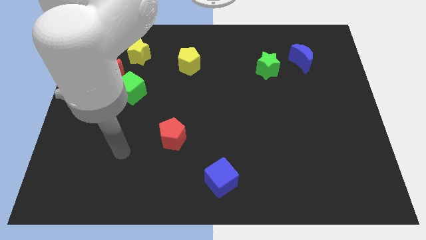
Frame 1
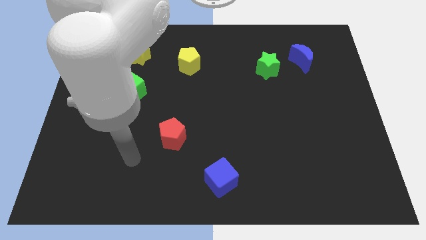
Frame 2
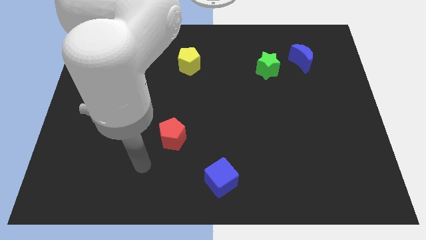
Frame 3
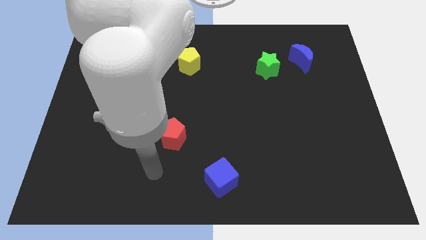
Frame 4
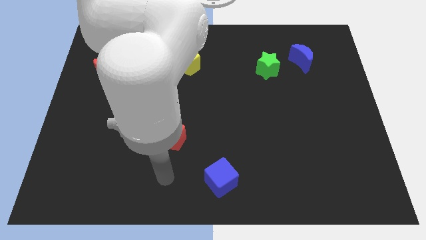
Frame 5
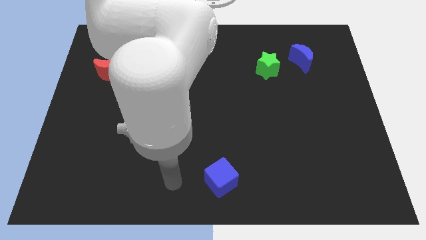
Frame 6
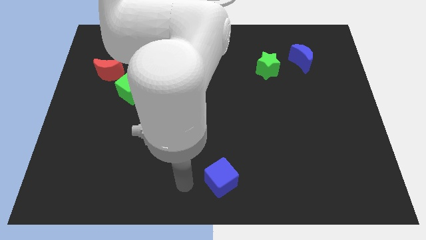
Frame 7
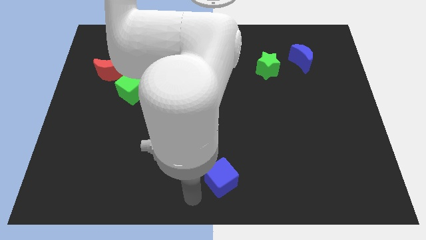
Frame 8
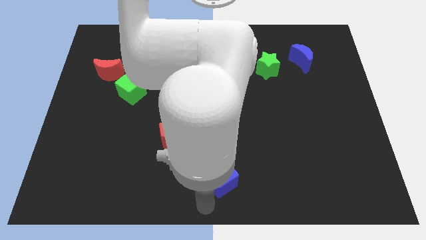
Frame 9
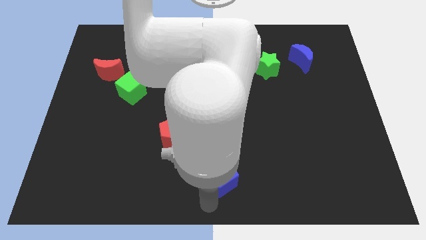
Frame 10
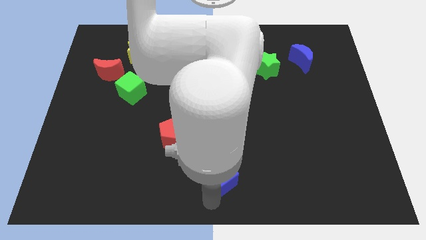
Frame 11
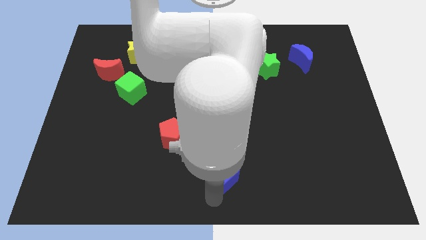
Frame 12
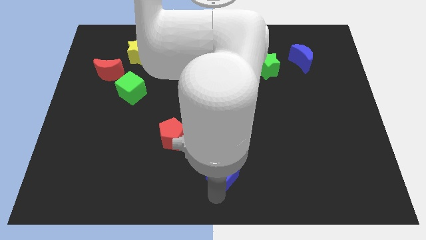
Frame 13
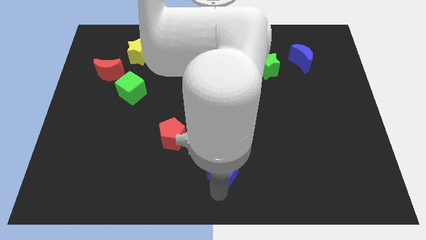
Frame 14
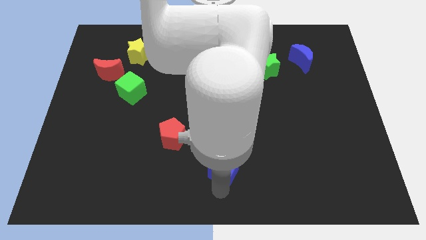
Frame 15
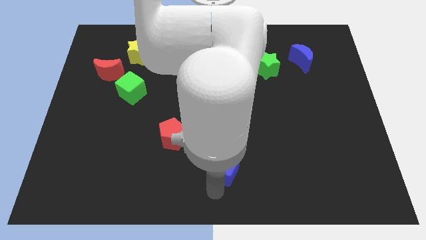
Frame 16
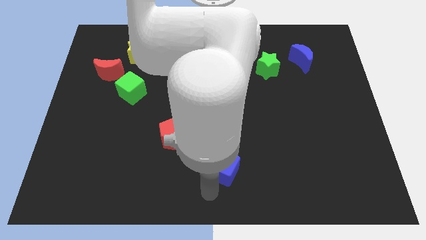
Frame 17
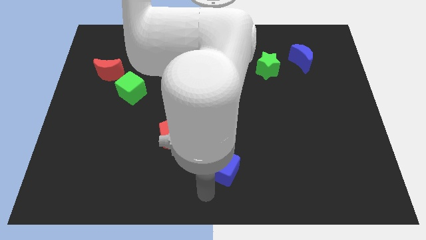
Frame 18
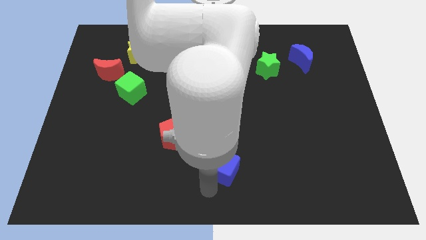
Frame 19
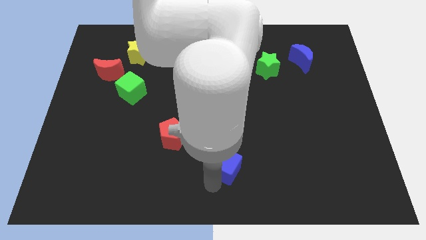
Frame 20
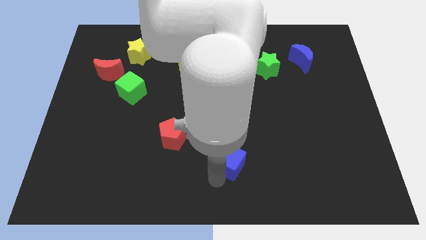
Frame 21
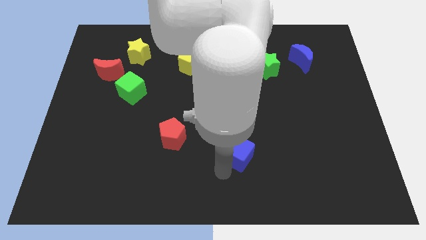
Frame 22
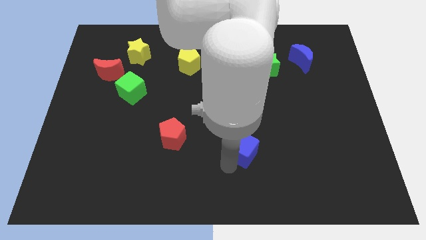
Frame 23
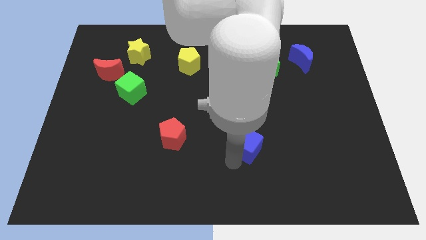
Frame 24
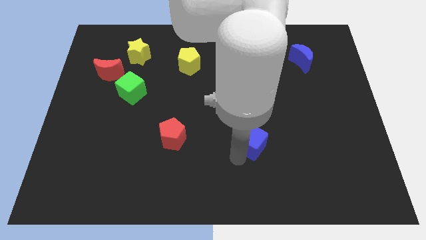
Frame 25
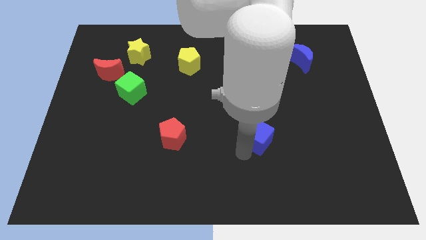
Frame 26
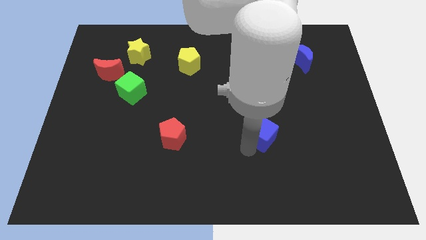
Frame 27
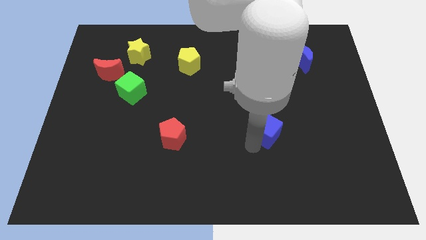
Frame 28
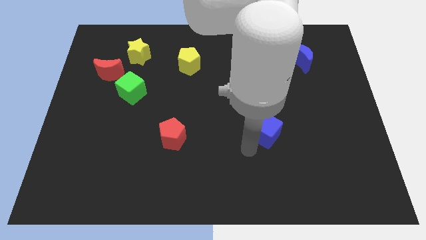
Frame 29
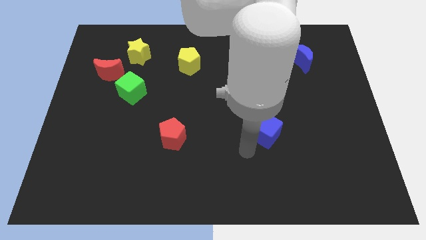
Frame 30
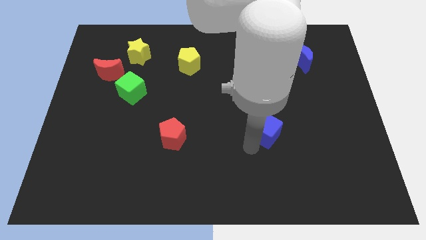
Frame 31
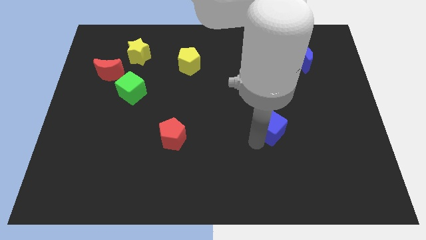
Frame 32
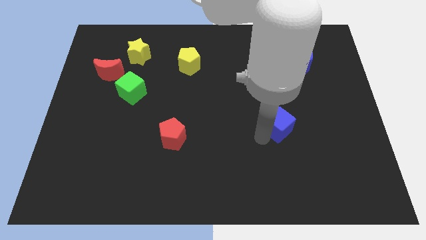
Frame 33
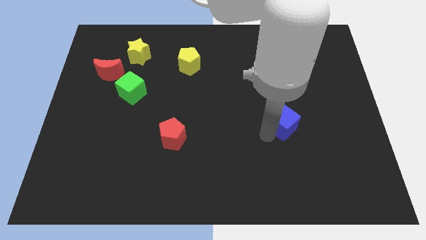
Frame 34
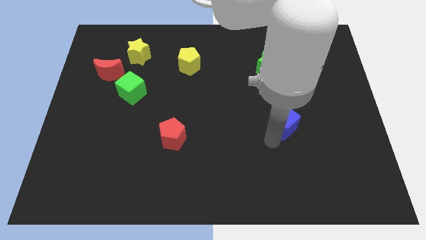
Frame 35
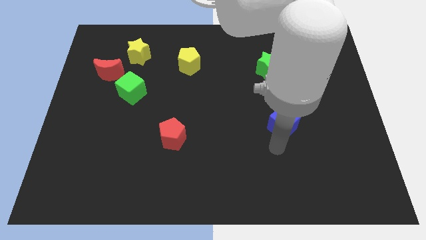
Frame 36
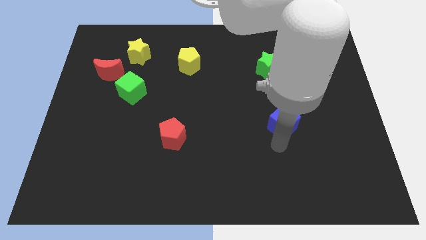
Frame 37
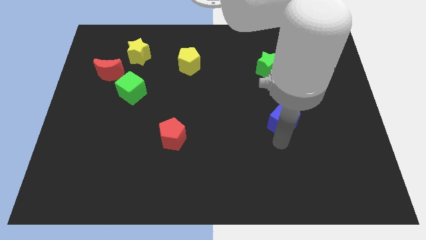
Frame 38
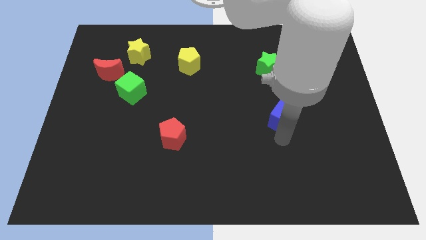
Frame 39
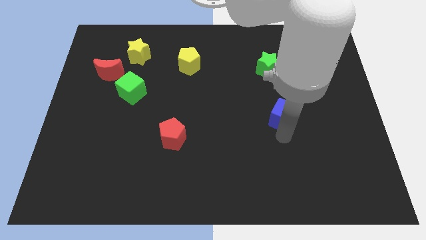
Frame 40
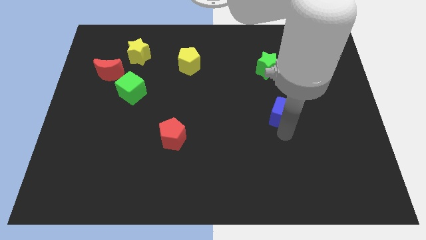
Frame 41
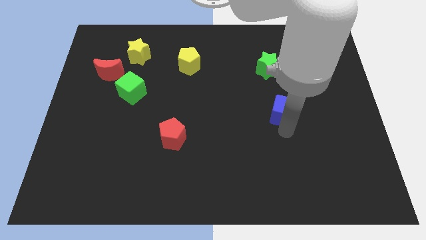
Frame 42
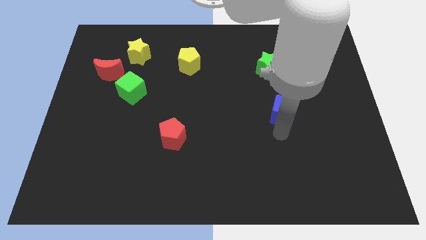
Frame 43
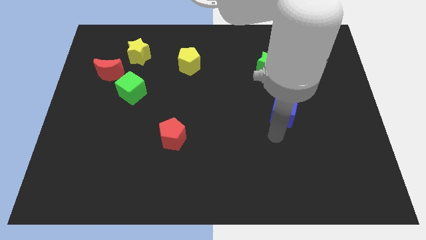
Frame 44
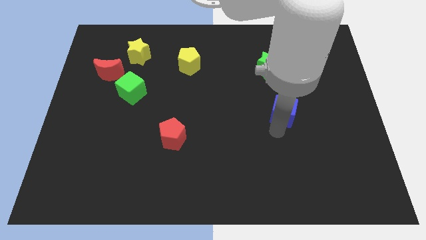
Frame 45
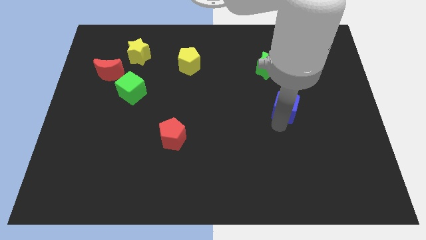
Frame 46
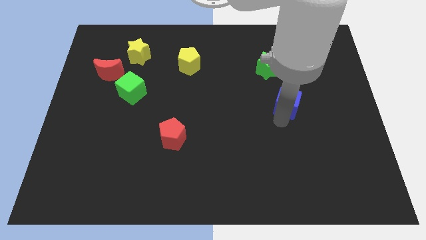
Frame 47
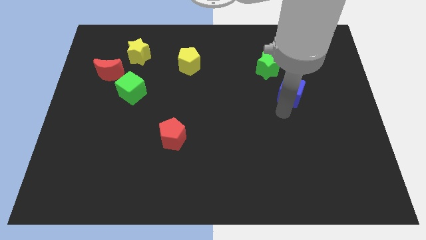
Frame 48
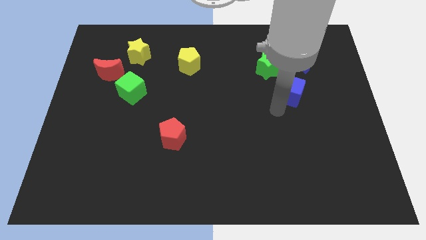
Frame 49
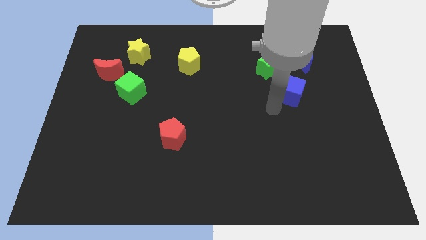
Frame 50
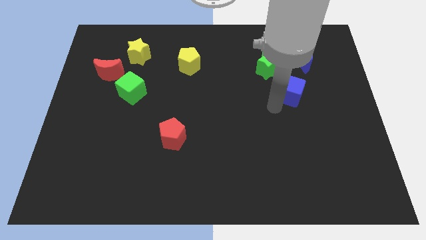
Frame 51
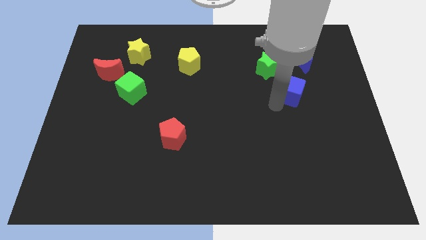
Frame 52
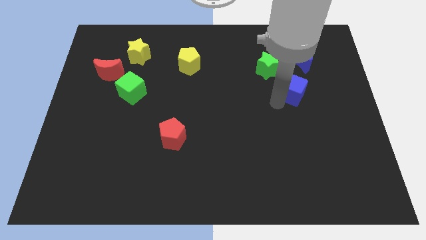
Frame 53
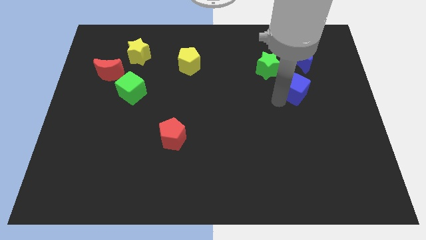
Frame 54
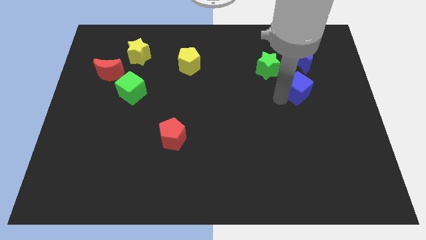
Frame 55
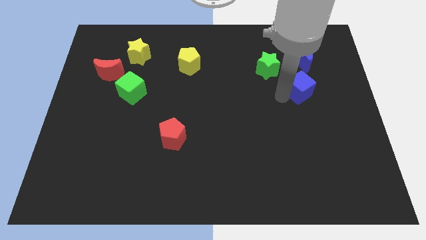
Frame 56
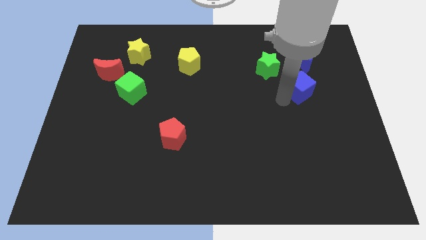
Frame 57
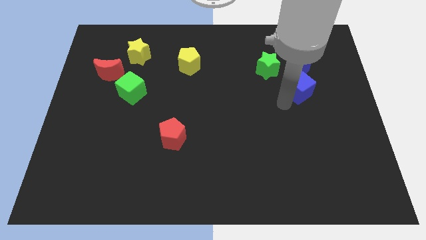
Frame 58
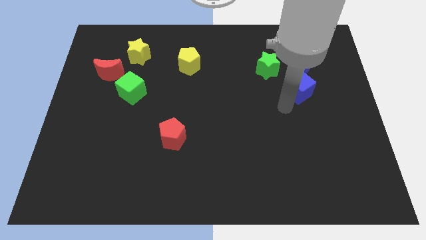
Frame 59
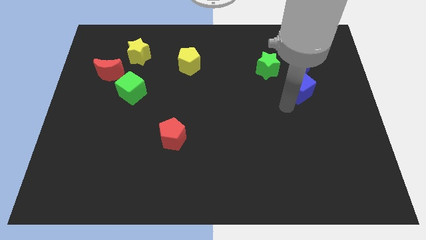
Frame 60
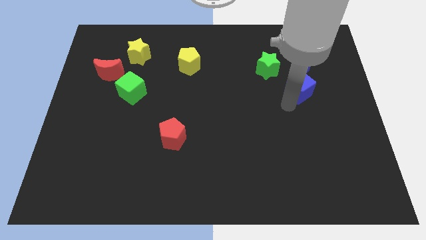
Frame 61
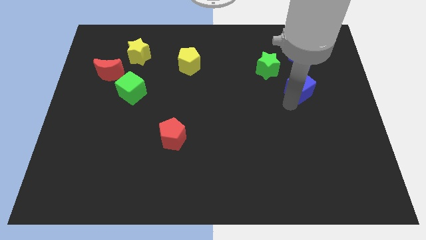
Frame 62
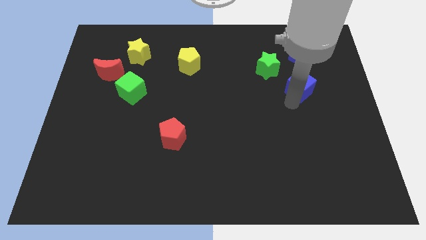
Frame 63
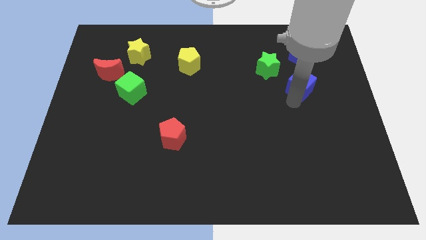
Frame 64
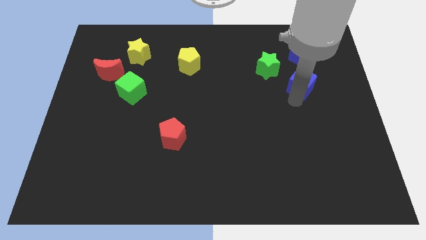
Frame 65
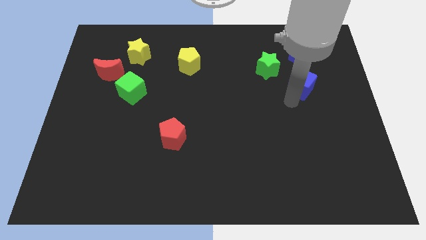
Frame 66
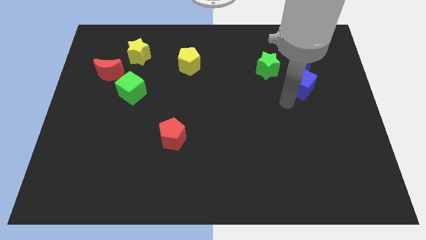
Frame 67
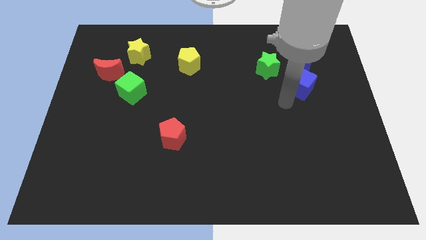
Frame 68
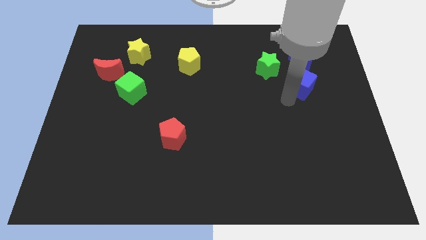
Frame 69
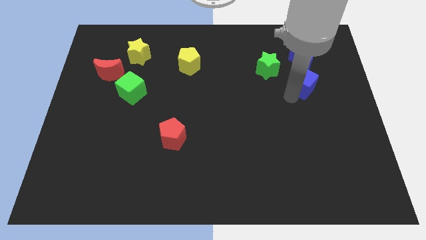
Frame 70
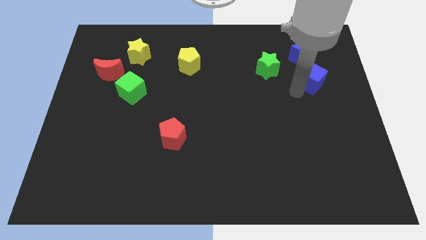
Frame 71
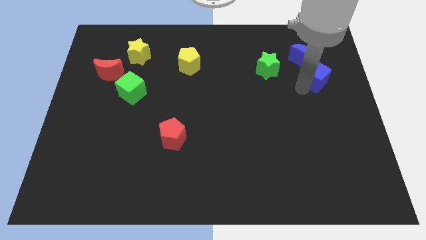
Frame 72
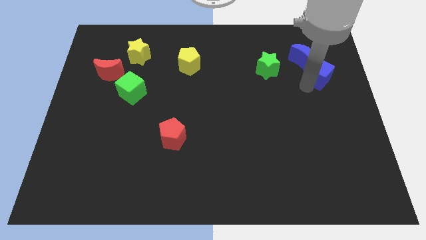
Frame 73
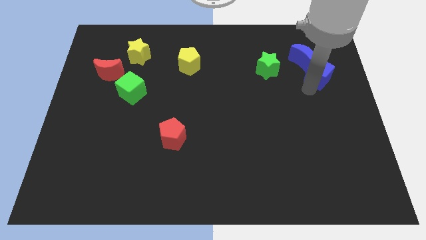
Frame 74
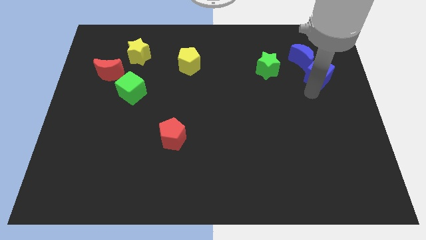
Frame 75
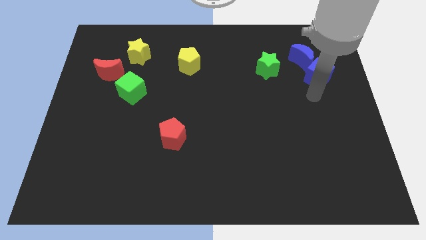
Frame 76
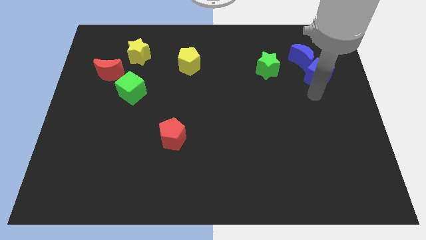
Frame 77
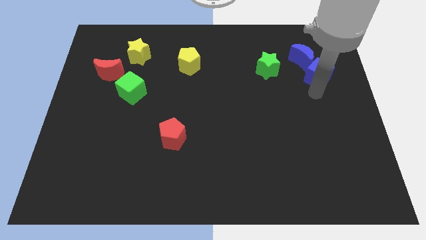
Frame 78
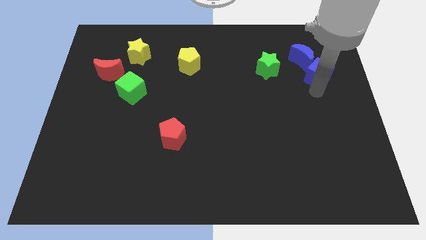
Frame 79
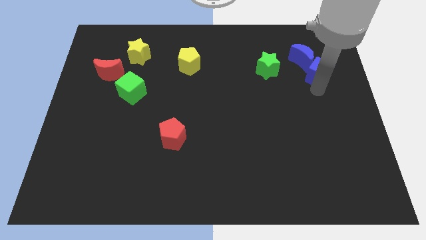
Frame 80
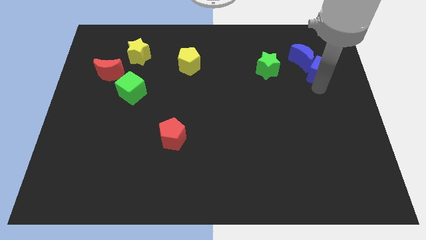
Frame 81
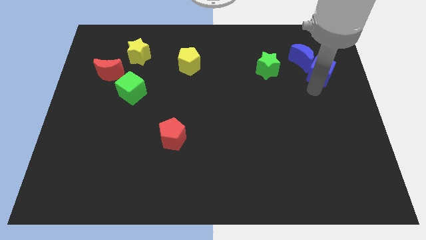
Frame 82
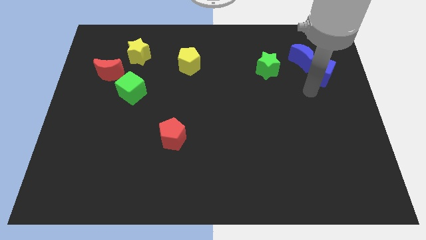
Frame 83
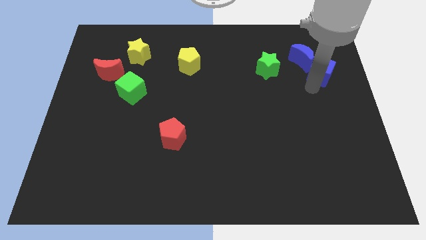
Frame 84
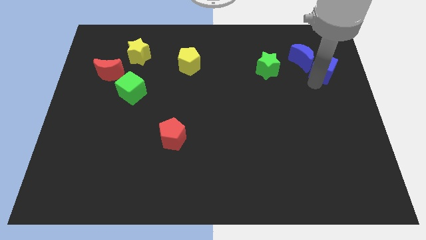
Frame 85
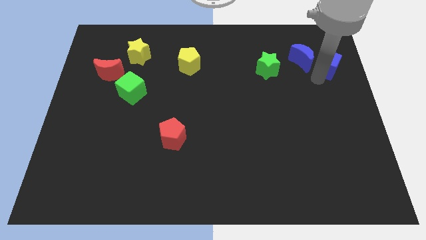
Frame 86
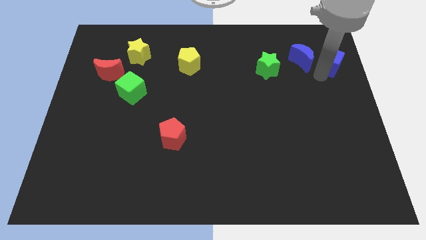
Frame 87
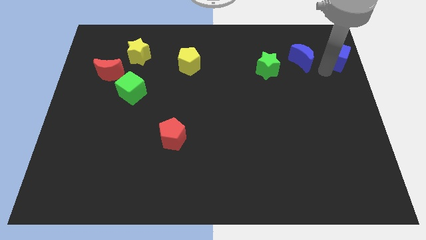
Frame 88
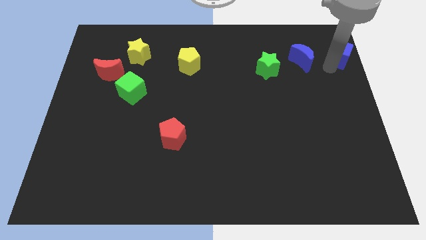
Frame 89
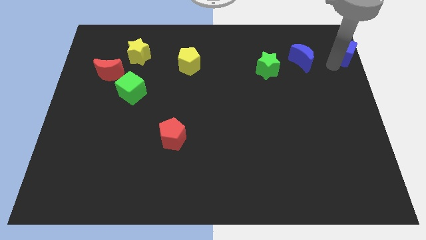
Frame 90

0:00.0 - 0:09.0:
put the blue cube to the upper right corner
